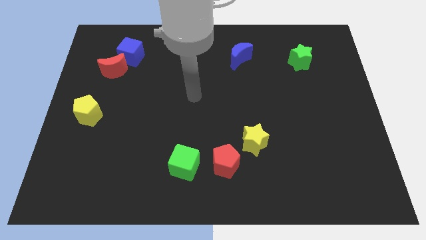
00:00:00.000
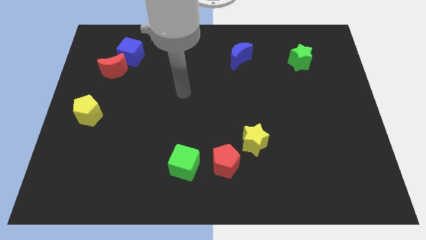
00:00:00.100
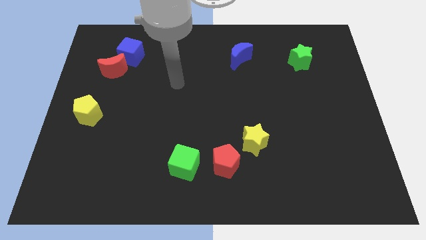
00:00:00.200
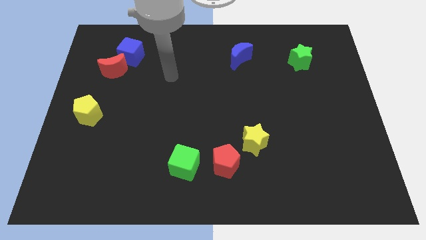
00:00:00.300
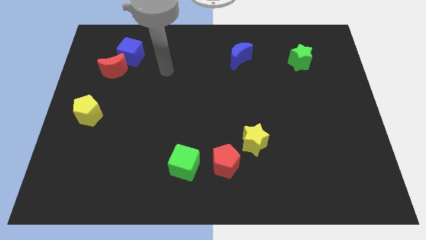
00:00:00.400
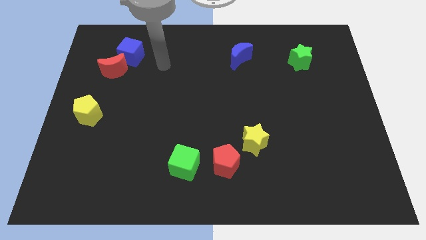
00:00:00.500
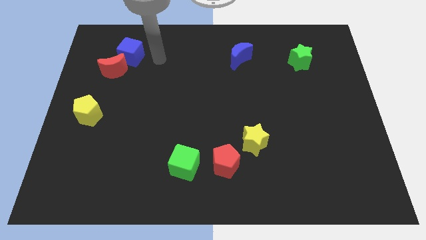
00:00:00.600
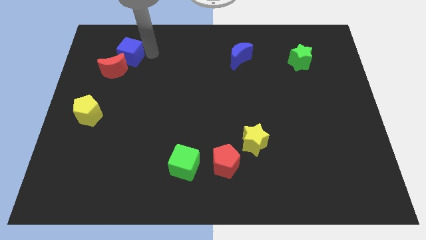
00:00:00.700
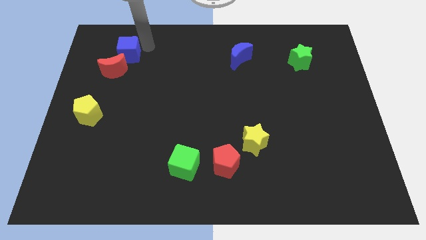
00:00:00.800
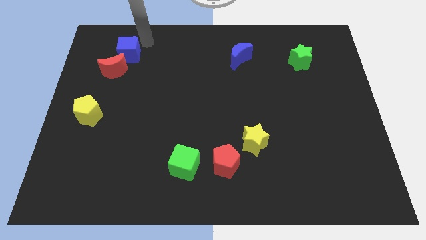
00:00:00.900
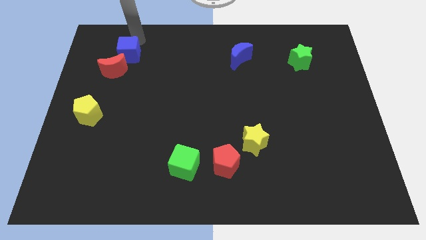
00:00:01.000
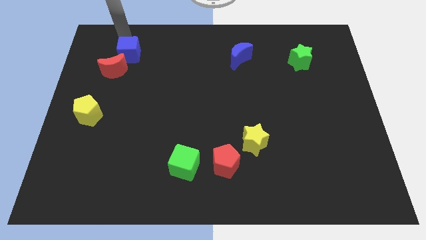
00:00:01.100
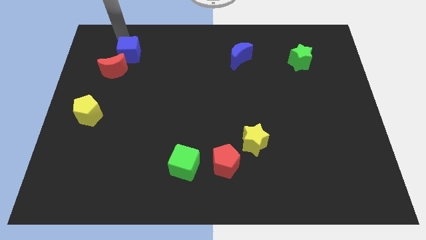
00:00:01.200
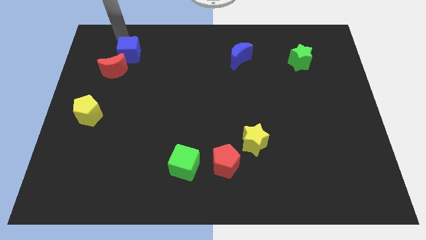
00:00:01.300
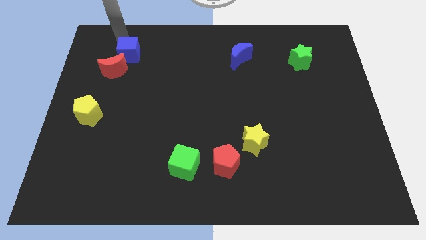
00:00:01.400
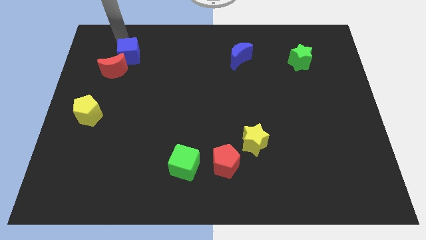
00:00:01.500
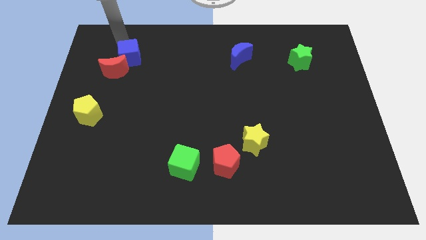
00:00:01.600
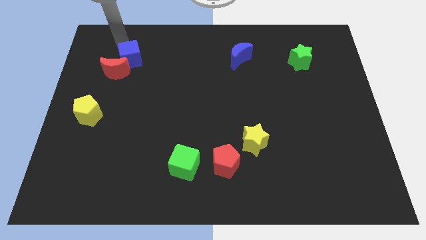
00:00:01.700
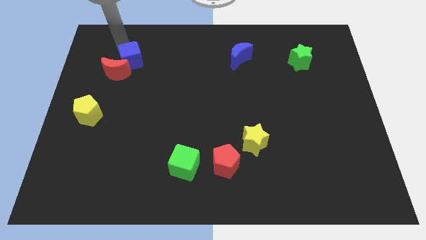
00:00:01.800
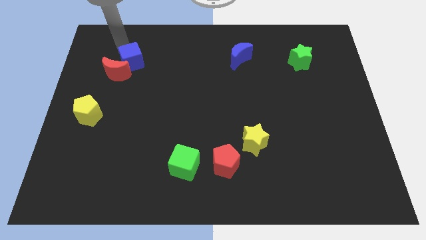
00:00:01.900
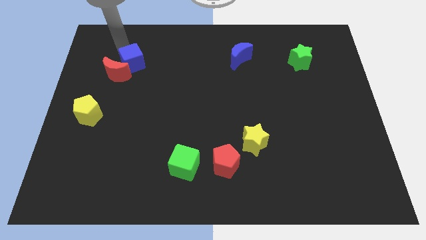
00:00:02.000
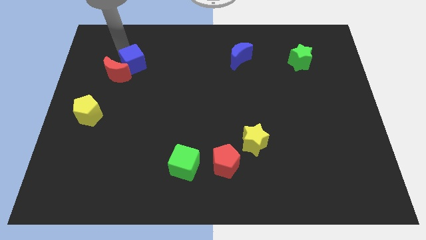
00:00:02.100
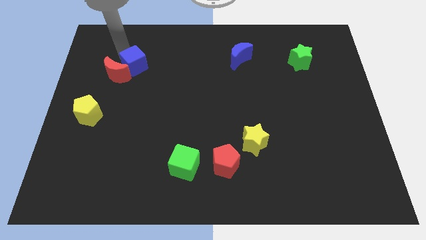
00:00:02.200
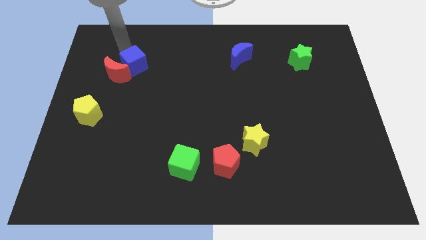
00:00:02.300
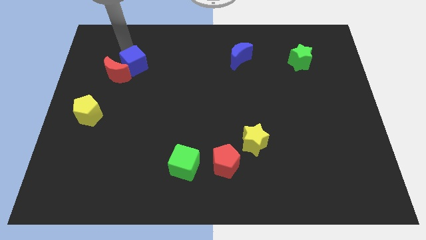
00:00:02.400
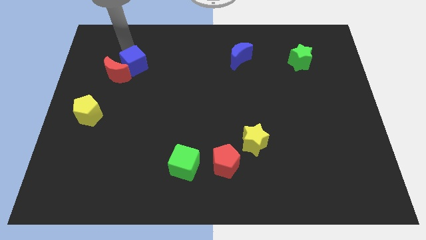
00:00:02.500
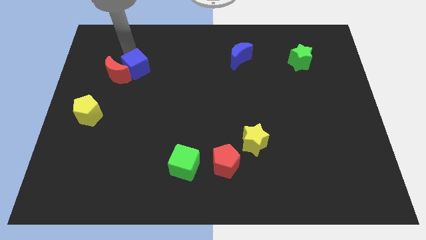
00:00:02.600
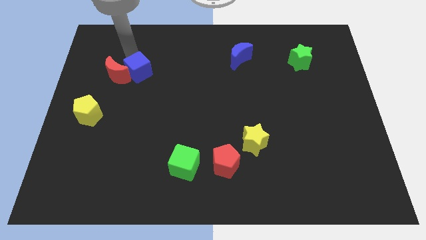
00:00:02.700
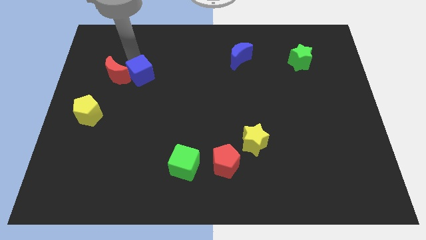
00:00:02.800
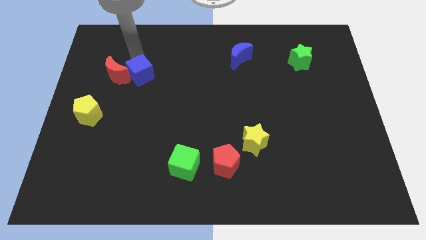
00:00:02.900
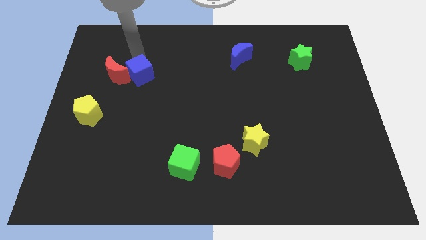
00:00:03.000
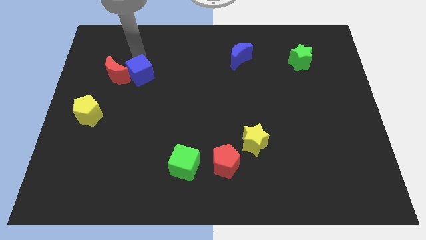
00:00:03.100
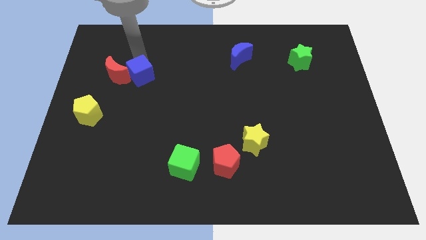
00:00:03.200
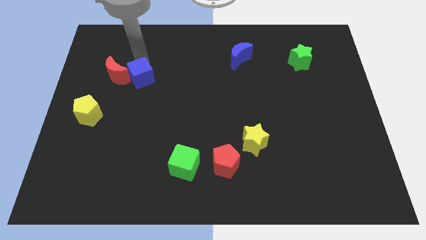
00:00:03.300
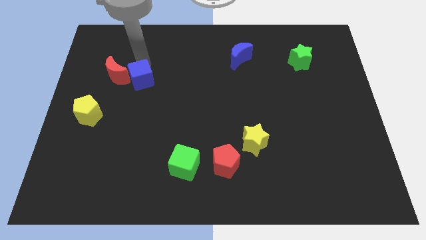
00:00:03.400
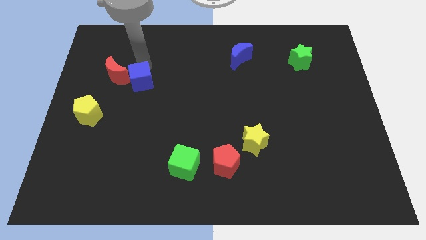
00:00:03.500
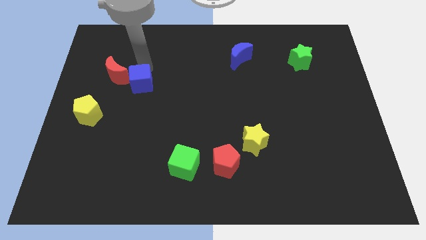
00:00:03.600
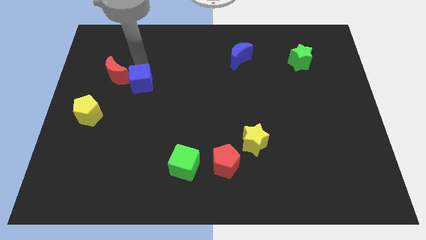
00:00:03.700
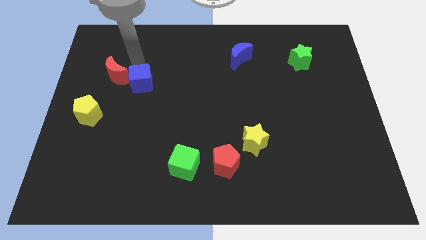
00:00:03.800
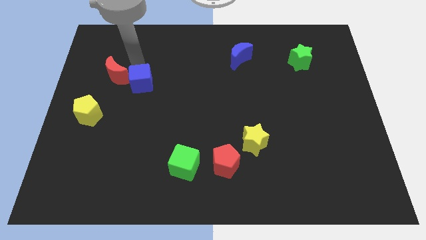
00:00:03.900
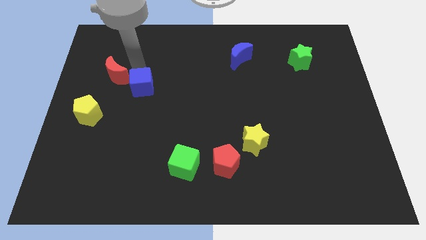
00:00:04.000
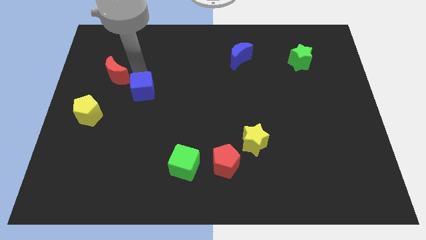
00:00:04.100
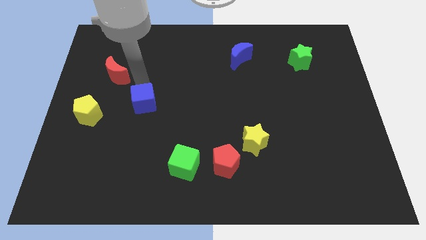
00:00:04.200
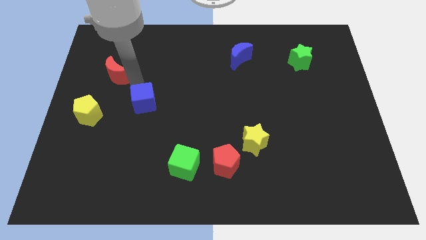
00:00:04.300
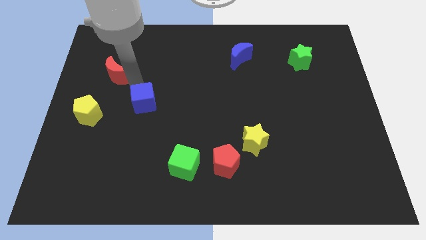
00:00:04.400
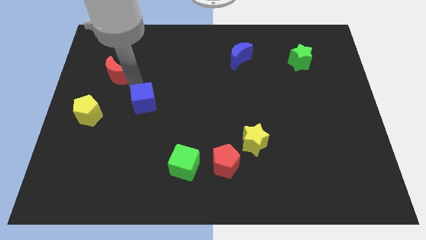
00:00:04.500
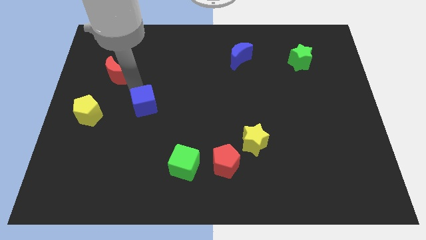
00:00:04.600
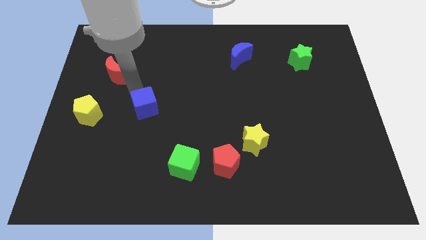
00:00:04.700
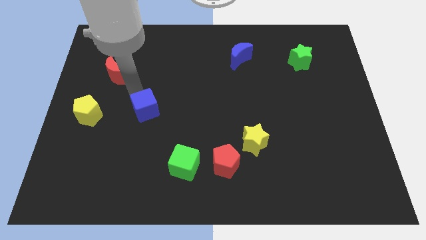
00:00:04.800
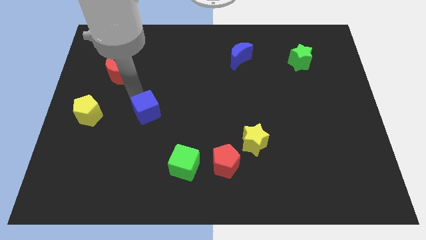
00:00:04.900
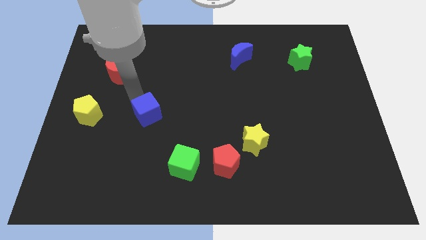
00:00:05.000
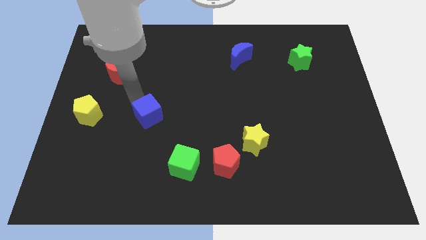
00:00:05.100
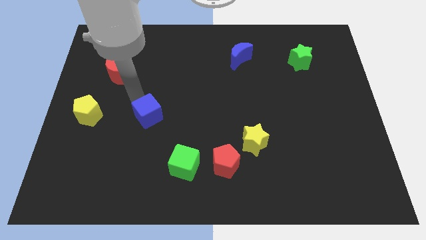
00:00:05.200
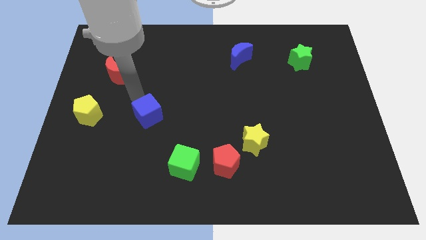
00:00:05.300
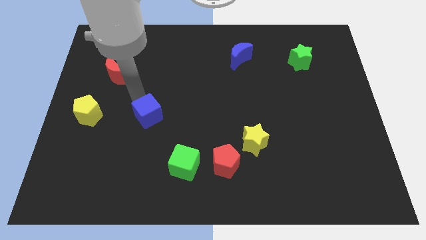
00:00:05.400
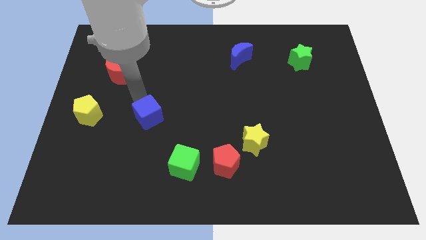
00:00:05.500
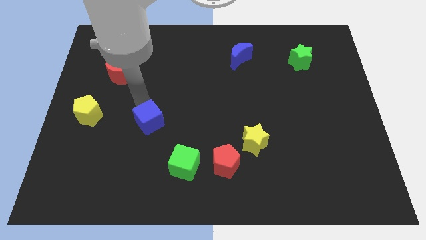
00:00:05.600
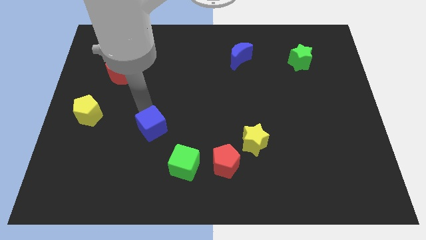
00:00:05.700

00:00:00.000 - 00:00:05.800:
slide the blue cube diagonally up and to the left of the green cube

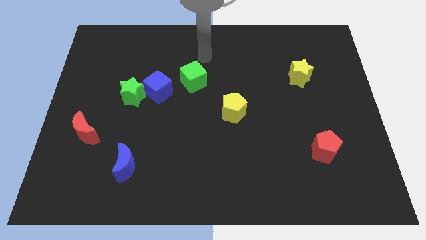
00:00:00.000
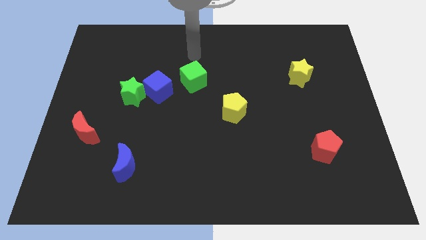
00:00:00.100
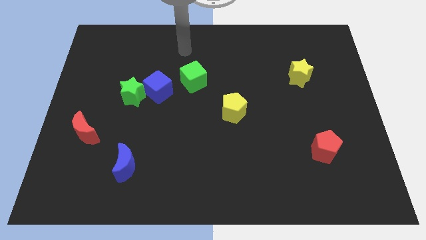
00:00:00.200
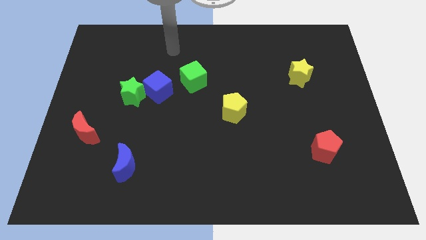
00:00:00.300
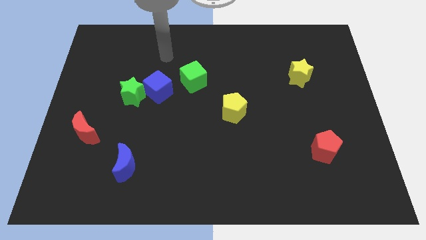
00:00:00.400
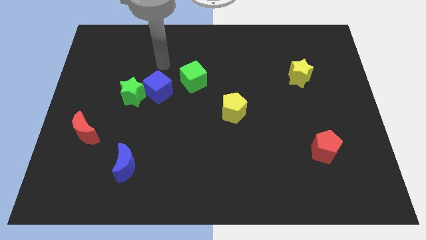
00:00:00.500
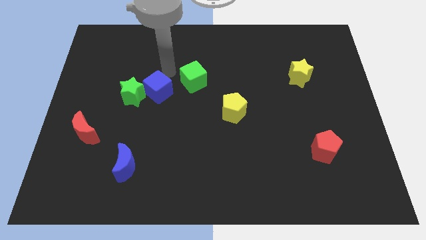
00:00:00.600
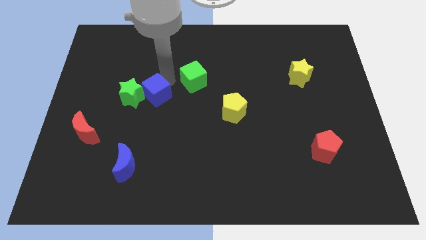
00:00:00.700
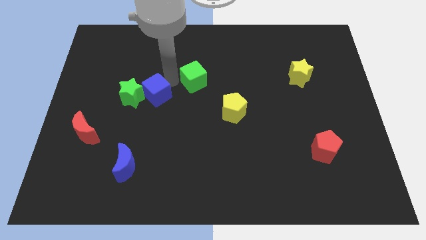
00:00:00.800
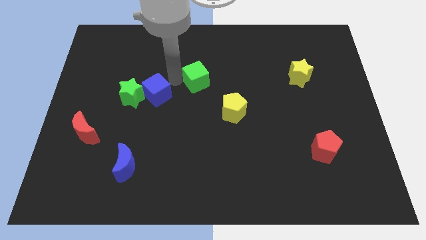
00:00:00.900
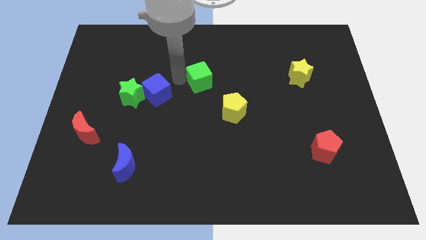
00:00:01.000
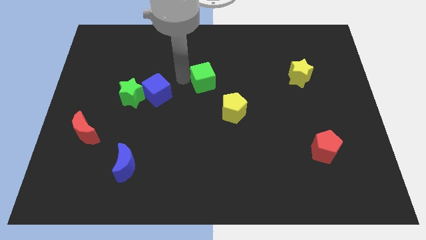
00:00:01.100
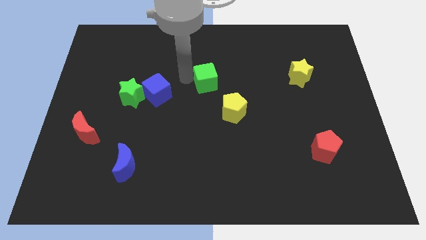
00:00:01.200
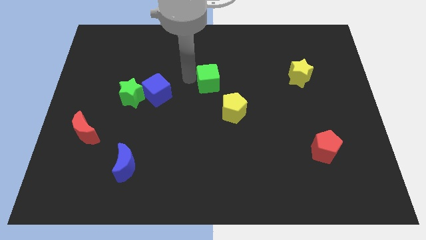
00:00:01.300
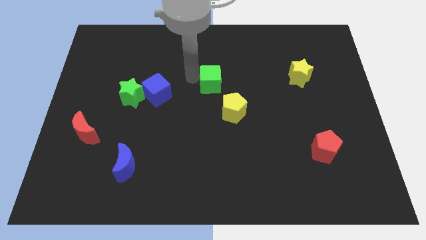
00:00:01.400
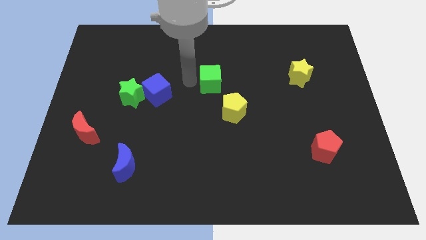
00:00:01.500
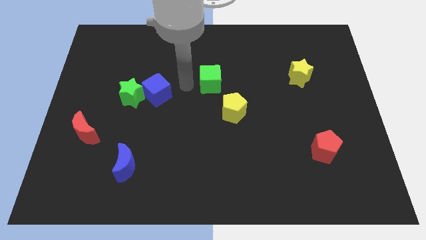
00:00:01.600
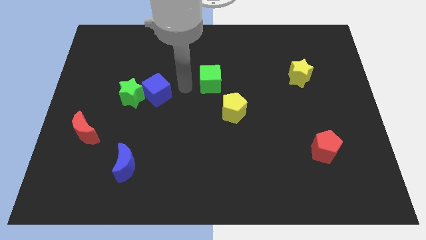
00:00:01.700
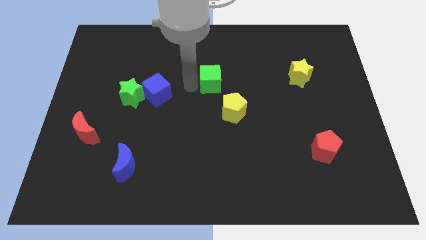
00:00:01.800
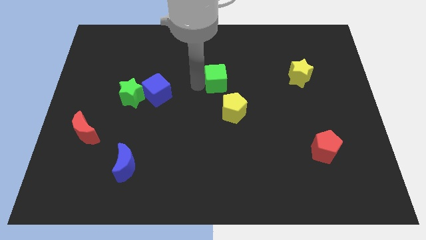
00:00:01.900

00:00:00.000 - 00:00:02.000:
push the green cube to the top side of the yellow pentagon
